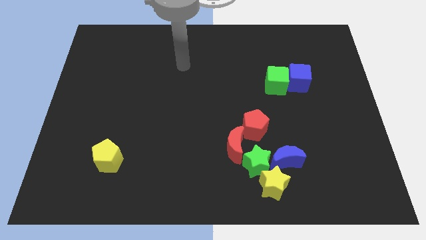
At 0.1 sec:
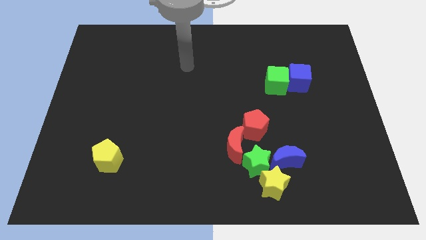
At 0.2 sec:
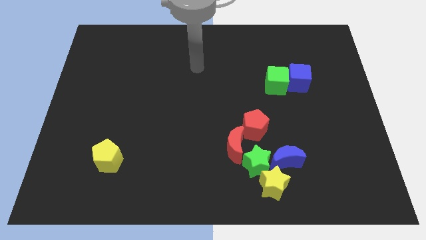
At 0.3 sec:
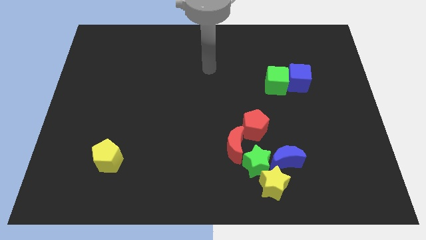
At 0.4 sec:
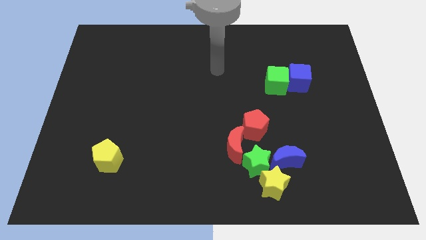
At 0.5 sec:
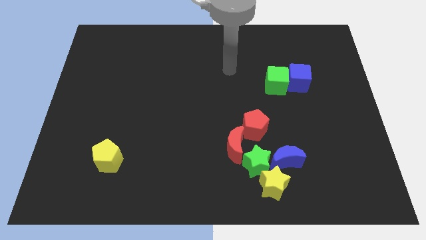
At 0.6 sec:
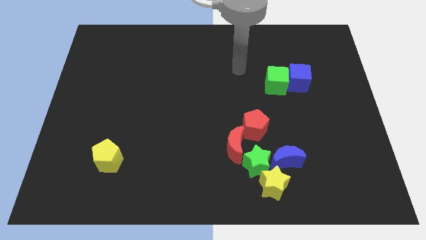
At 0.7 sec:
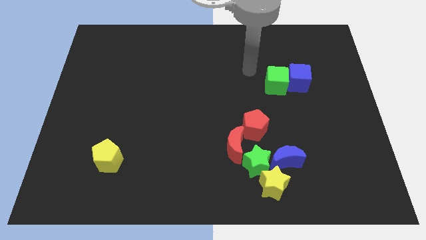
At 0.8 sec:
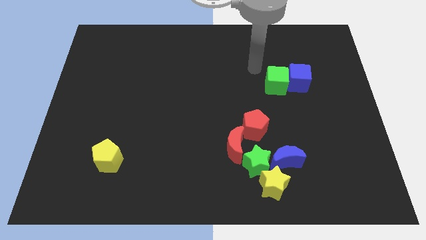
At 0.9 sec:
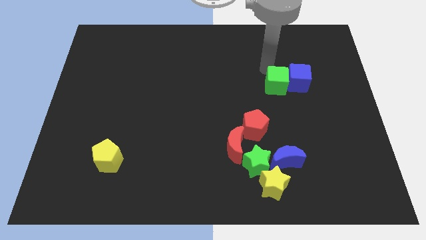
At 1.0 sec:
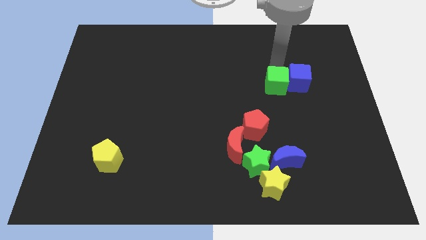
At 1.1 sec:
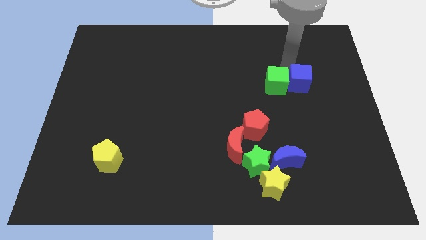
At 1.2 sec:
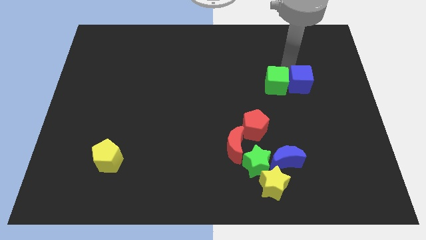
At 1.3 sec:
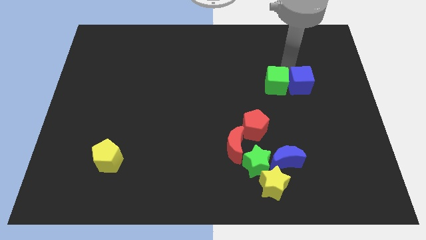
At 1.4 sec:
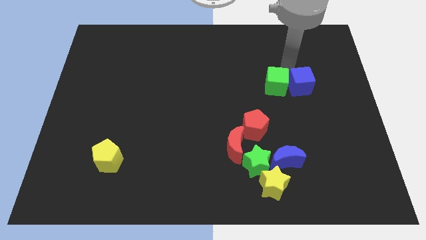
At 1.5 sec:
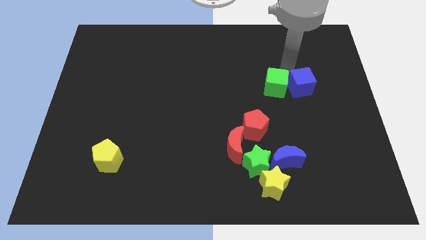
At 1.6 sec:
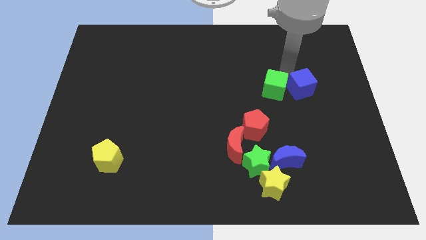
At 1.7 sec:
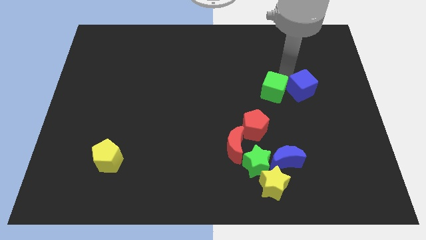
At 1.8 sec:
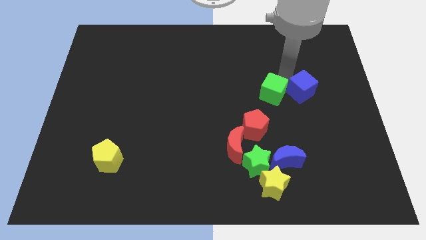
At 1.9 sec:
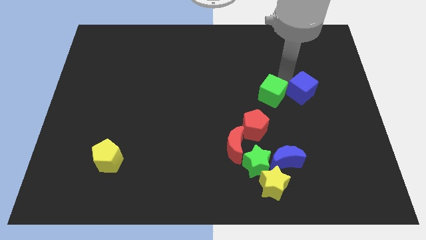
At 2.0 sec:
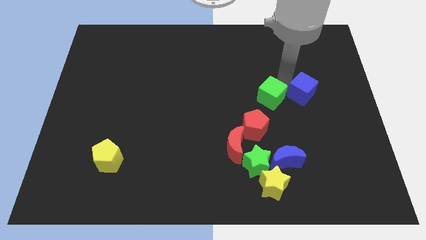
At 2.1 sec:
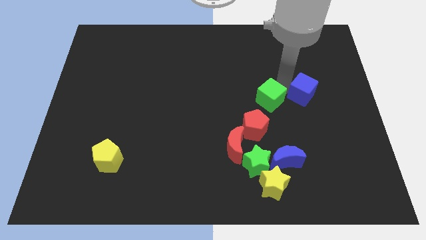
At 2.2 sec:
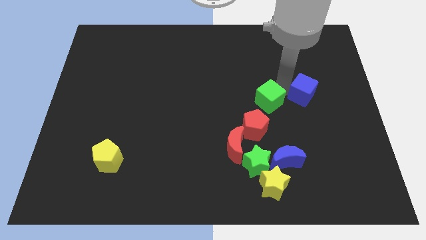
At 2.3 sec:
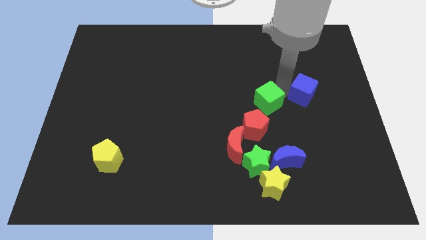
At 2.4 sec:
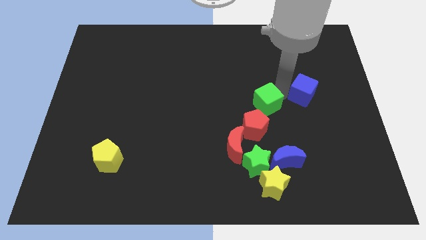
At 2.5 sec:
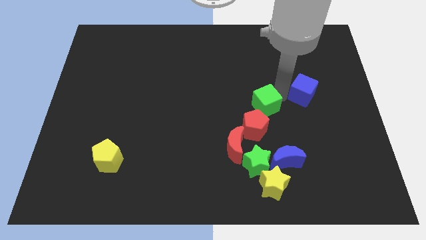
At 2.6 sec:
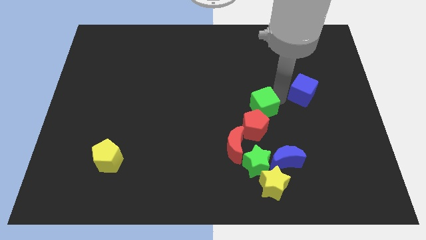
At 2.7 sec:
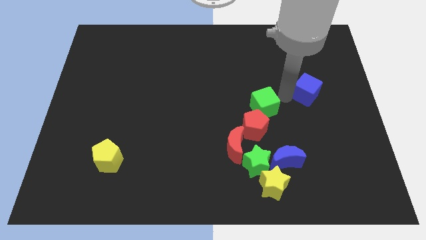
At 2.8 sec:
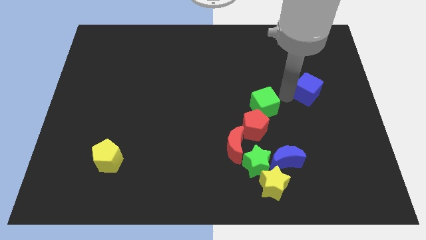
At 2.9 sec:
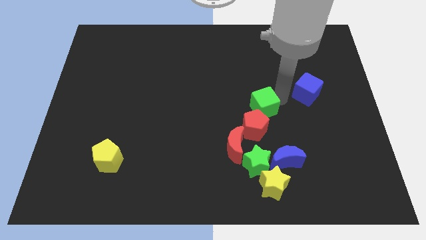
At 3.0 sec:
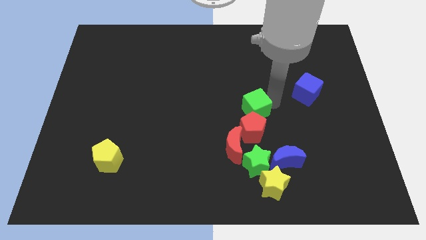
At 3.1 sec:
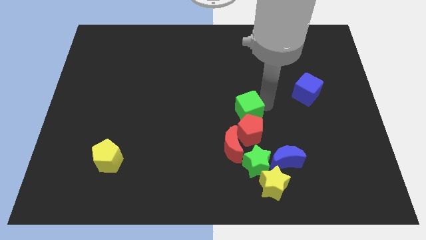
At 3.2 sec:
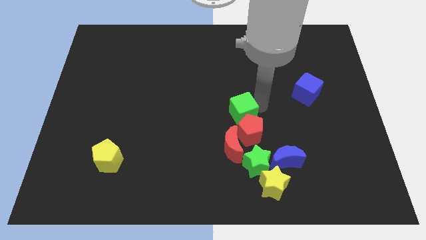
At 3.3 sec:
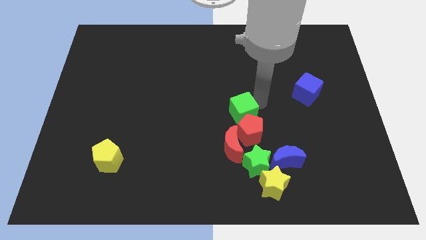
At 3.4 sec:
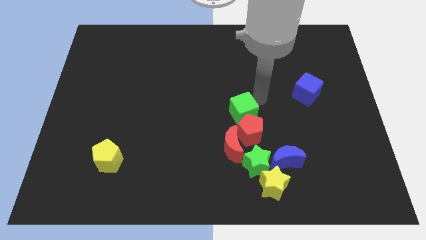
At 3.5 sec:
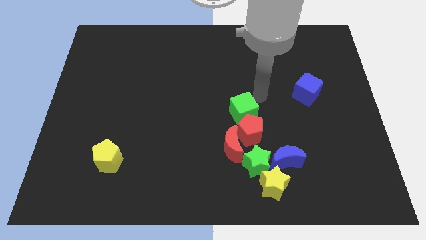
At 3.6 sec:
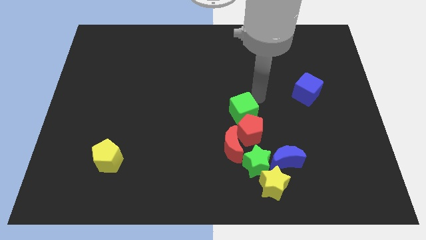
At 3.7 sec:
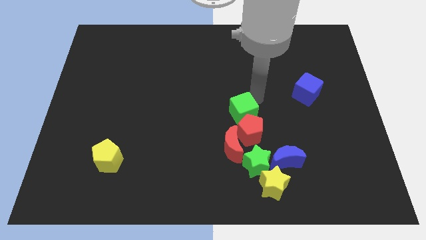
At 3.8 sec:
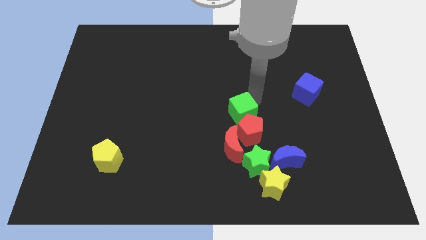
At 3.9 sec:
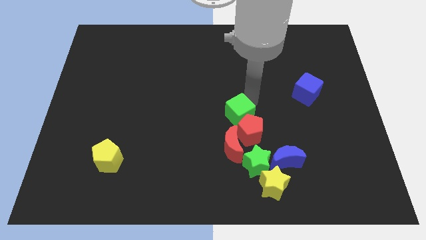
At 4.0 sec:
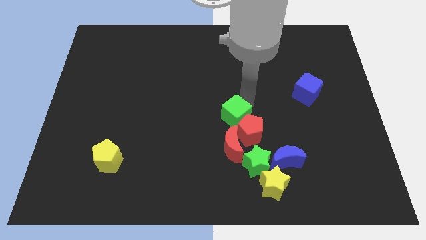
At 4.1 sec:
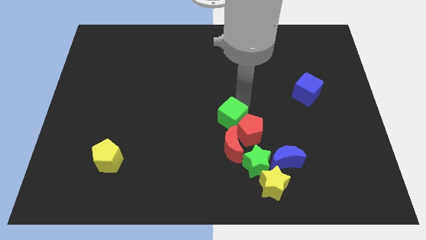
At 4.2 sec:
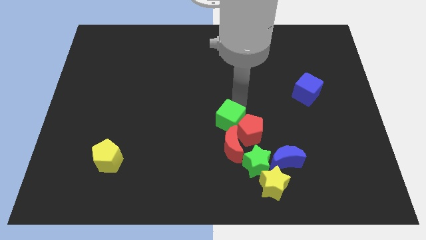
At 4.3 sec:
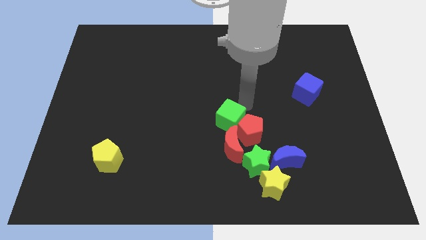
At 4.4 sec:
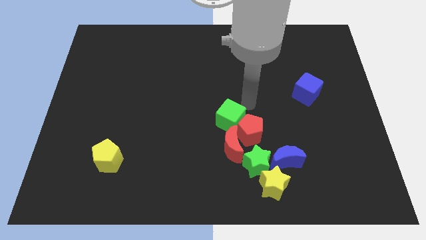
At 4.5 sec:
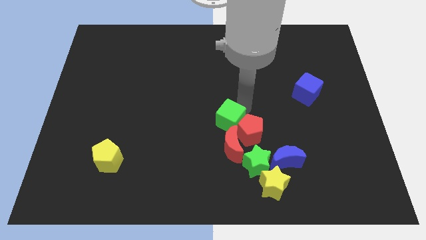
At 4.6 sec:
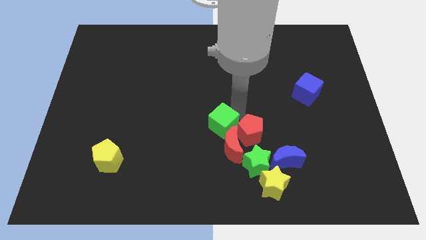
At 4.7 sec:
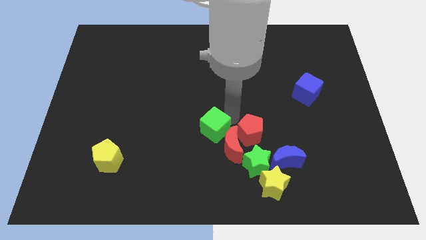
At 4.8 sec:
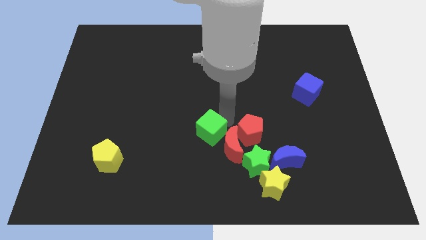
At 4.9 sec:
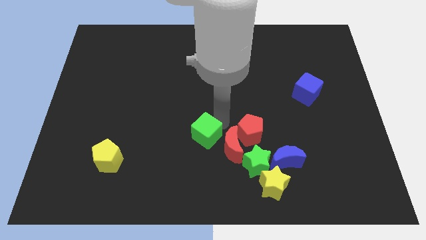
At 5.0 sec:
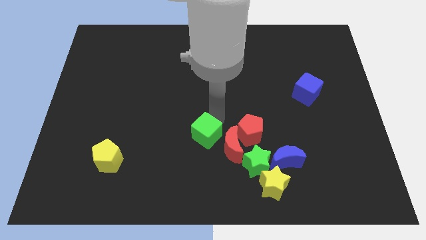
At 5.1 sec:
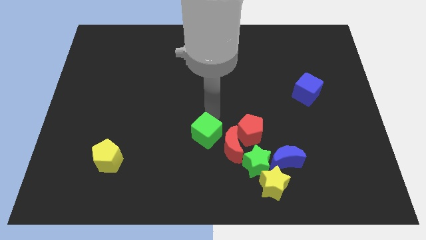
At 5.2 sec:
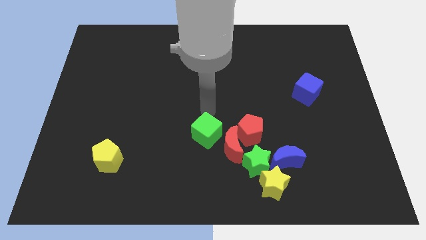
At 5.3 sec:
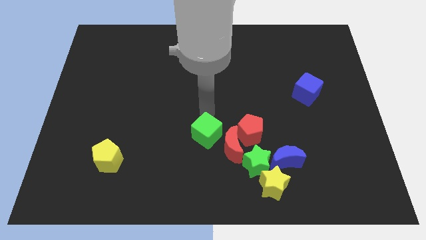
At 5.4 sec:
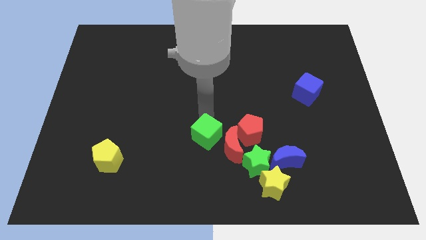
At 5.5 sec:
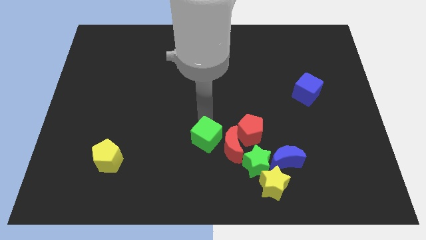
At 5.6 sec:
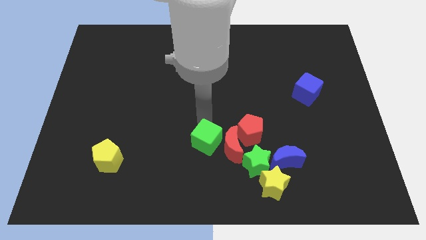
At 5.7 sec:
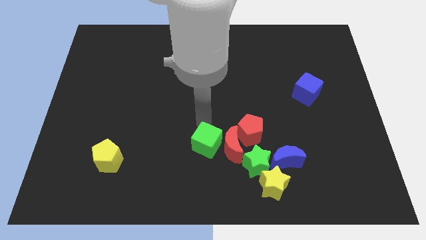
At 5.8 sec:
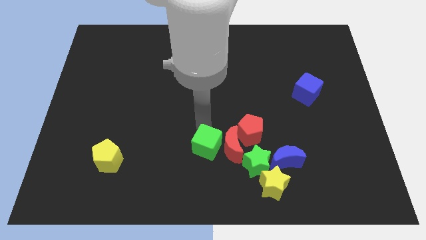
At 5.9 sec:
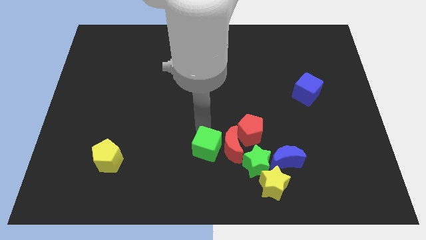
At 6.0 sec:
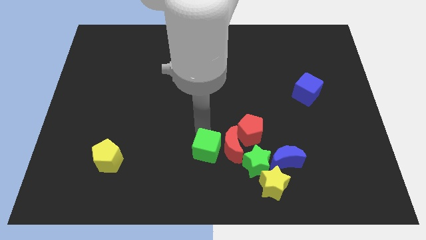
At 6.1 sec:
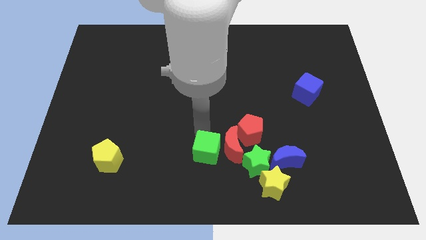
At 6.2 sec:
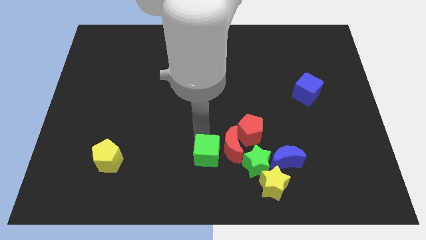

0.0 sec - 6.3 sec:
put the green cube to the bottom side

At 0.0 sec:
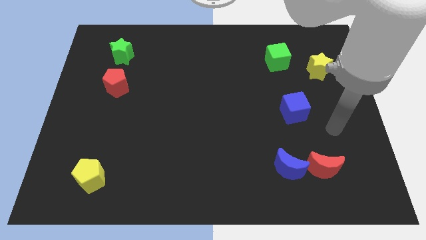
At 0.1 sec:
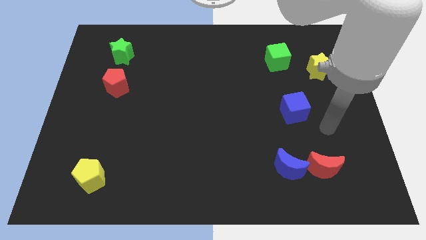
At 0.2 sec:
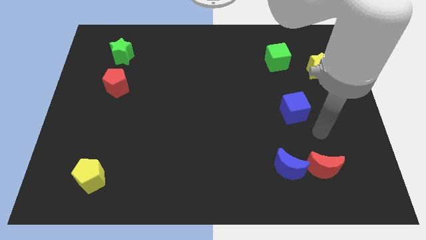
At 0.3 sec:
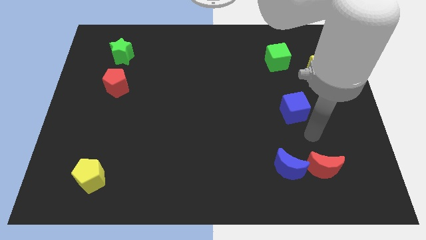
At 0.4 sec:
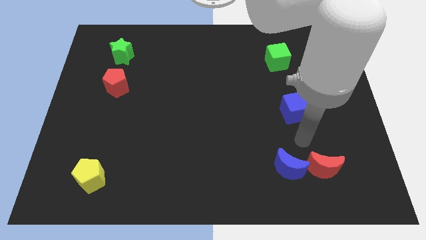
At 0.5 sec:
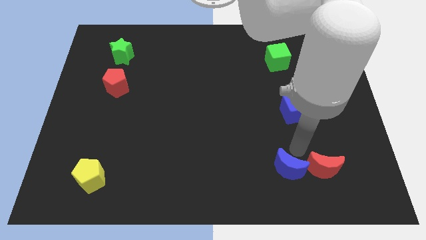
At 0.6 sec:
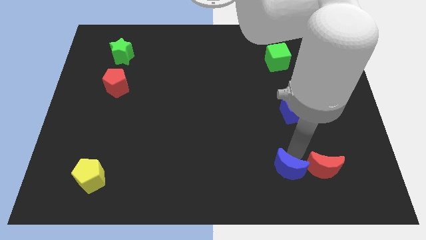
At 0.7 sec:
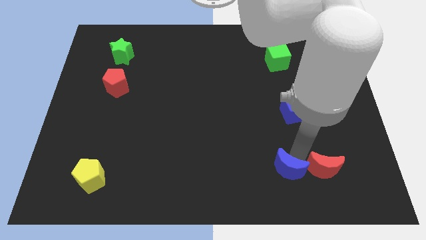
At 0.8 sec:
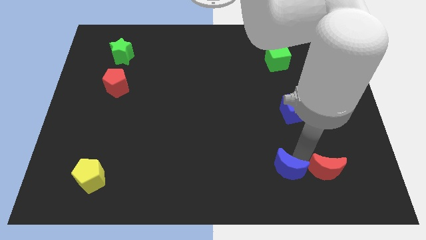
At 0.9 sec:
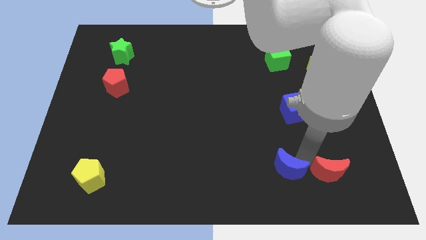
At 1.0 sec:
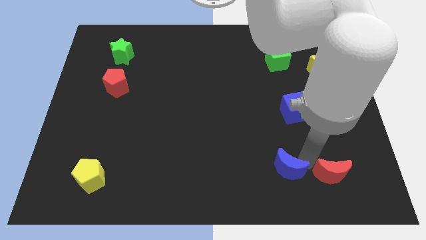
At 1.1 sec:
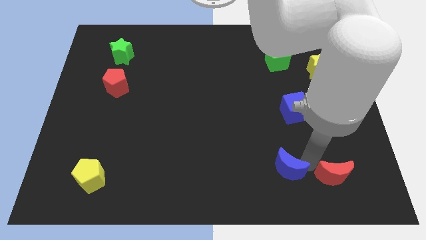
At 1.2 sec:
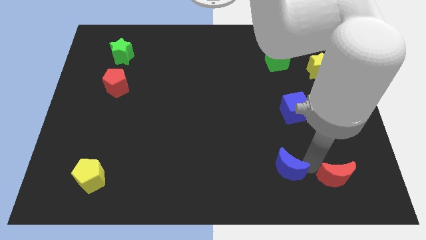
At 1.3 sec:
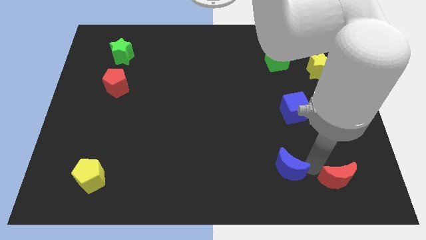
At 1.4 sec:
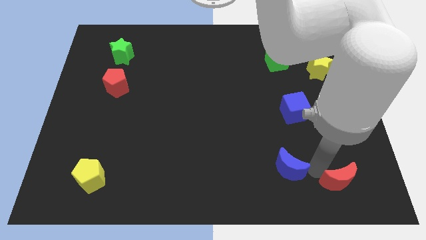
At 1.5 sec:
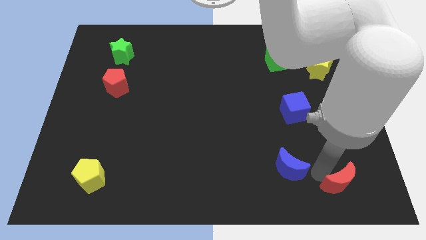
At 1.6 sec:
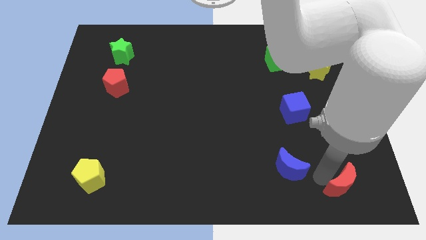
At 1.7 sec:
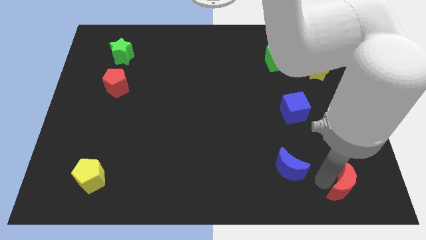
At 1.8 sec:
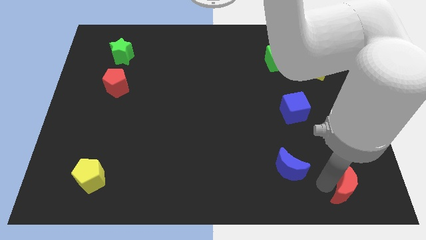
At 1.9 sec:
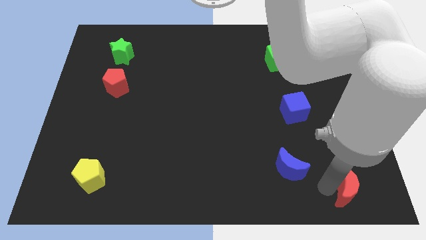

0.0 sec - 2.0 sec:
move the red moon to the bottom right
